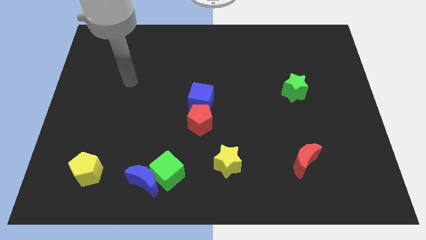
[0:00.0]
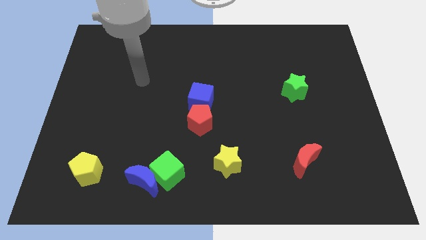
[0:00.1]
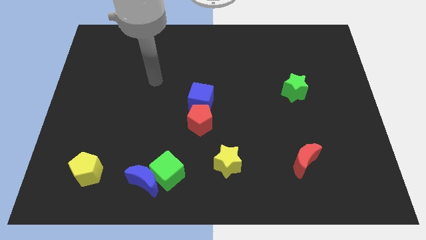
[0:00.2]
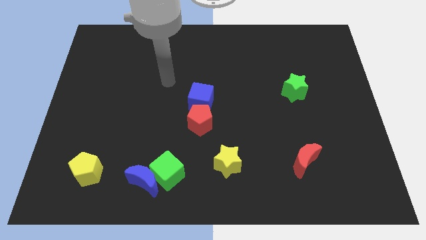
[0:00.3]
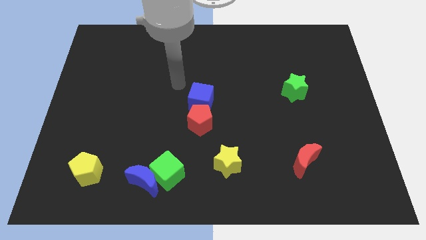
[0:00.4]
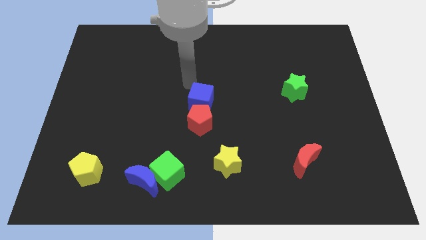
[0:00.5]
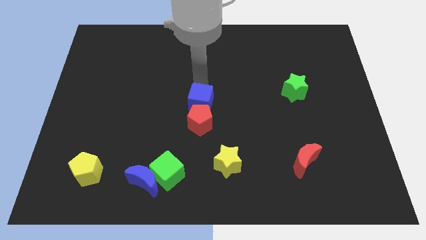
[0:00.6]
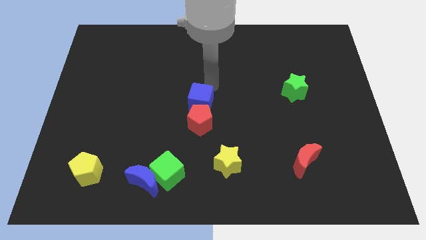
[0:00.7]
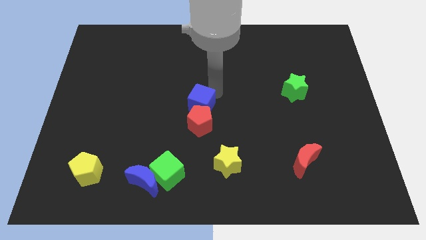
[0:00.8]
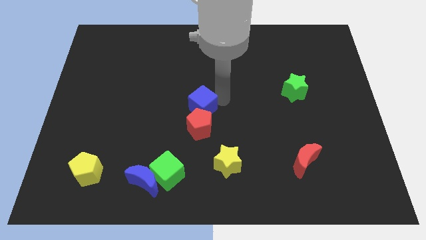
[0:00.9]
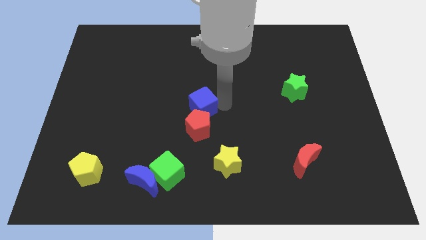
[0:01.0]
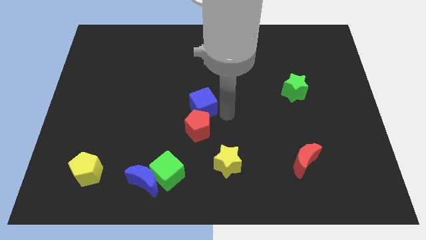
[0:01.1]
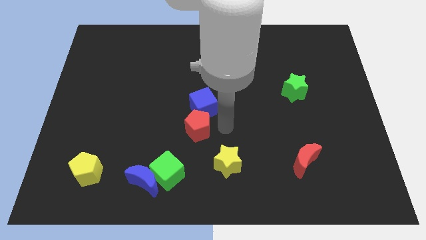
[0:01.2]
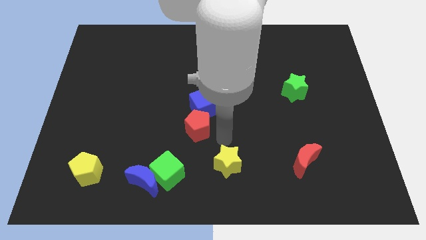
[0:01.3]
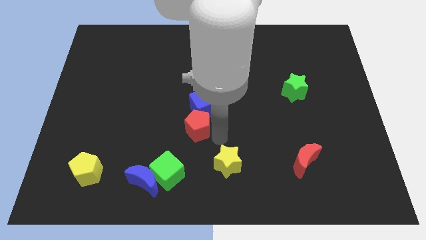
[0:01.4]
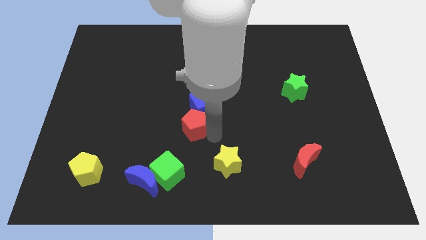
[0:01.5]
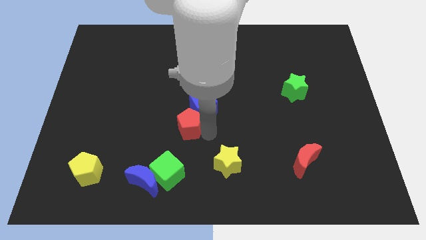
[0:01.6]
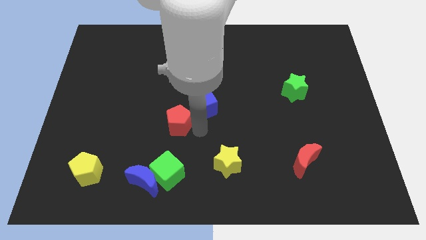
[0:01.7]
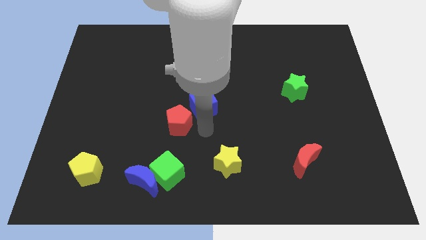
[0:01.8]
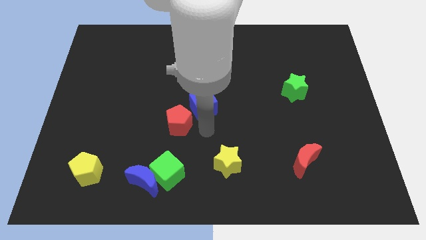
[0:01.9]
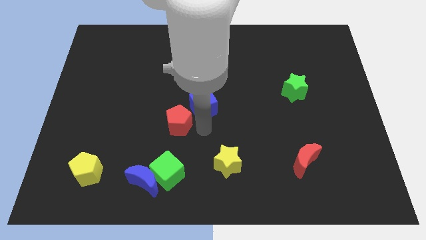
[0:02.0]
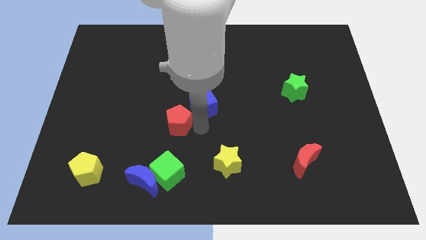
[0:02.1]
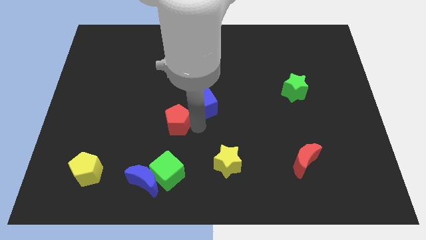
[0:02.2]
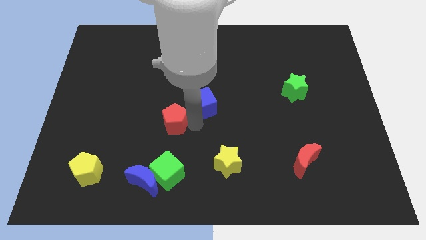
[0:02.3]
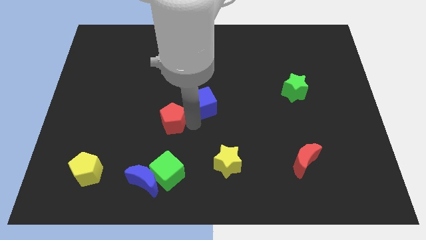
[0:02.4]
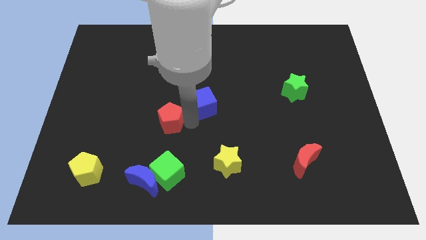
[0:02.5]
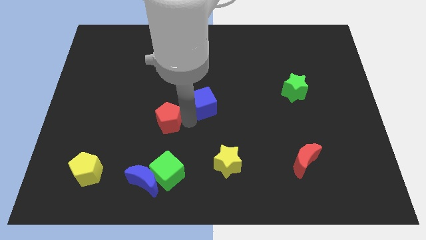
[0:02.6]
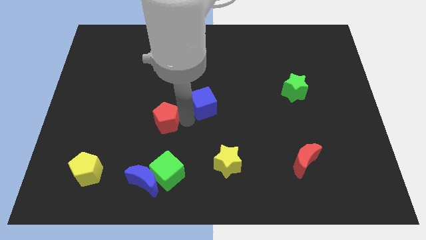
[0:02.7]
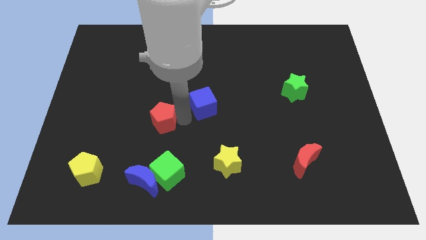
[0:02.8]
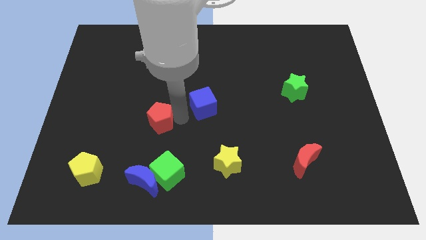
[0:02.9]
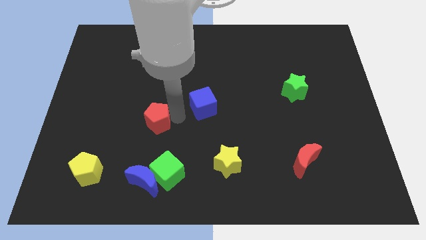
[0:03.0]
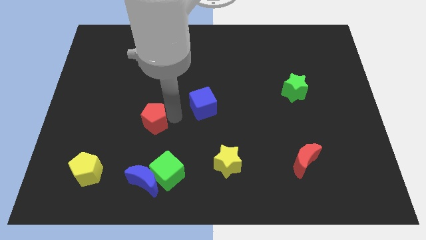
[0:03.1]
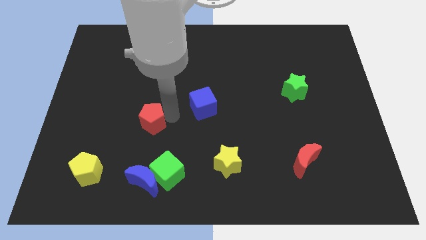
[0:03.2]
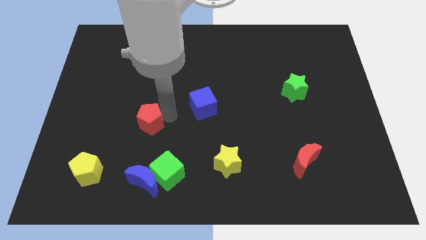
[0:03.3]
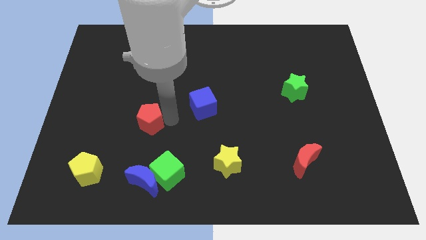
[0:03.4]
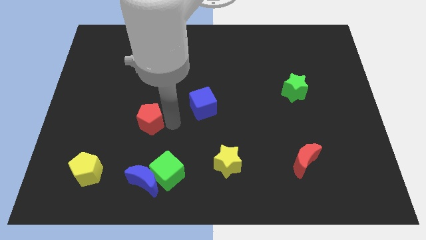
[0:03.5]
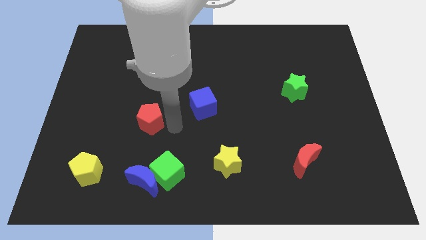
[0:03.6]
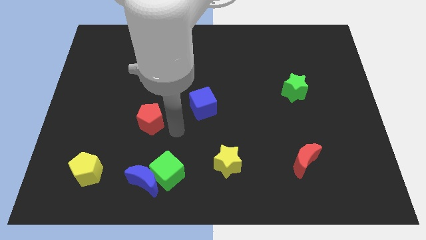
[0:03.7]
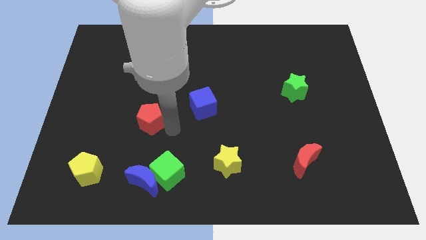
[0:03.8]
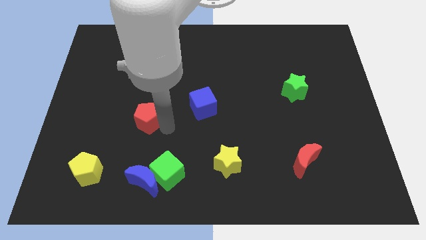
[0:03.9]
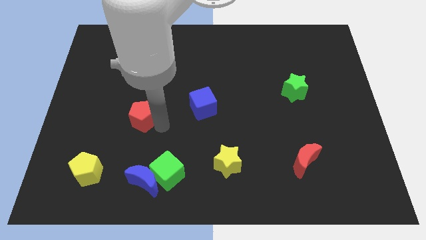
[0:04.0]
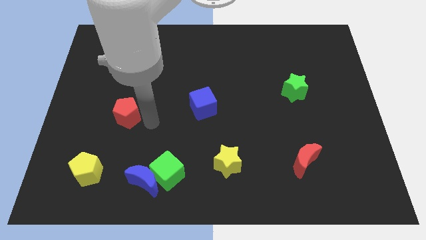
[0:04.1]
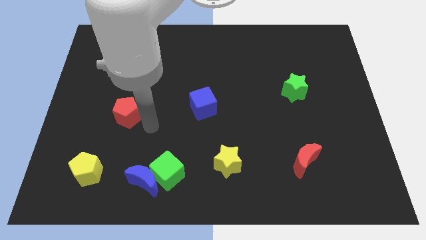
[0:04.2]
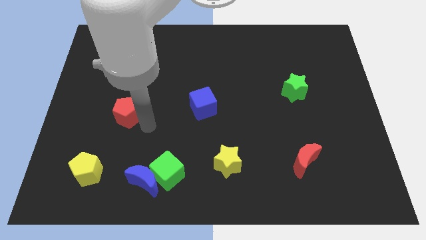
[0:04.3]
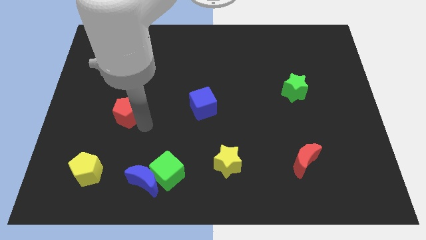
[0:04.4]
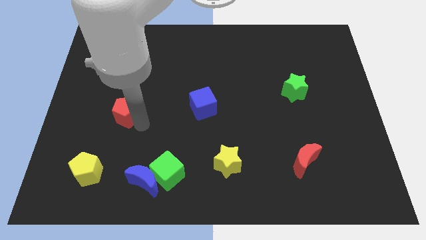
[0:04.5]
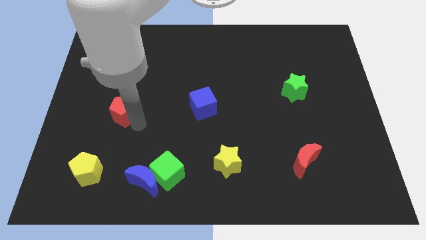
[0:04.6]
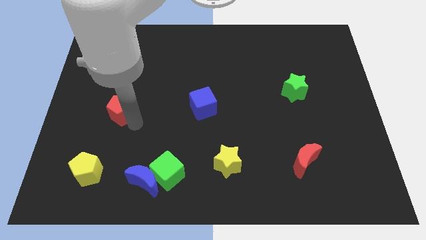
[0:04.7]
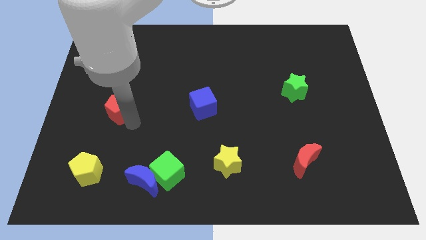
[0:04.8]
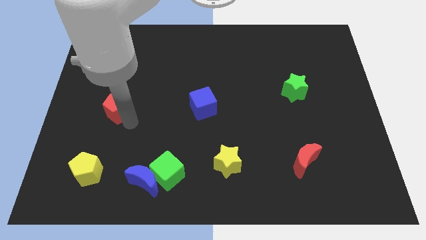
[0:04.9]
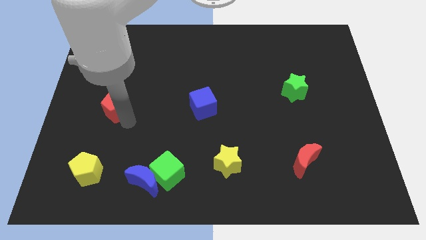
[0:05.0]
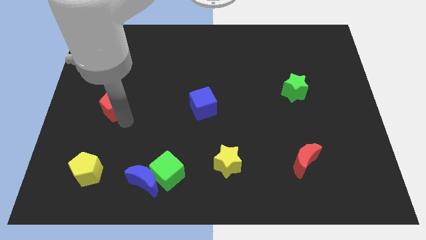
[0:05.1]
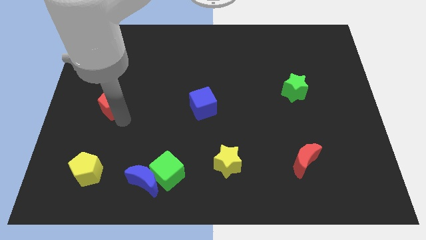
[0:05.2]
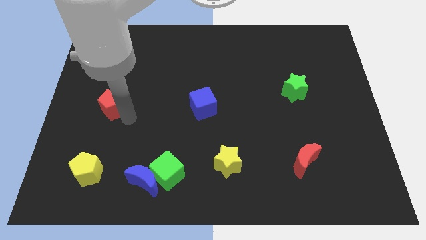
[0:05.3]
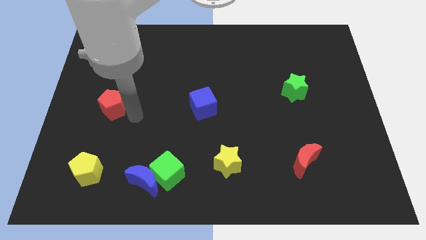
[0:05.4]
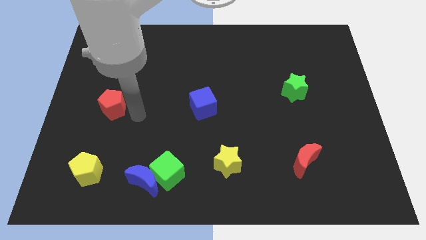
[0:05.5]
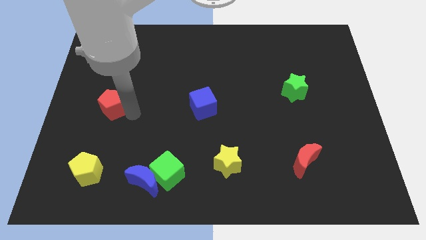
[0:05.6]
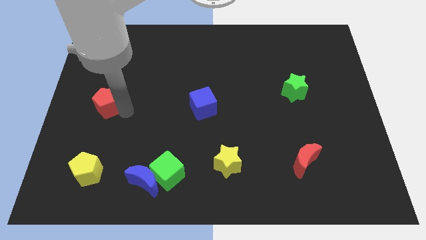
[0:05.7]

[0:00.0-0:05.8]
move the red pentagon to the center left
